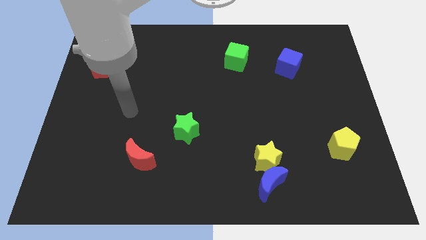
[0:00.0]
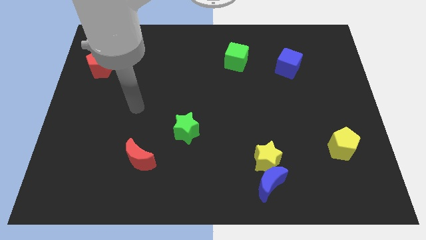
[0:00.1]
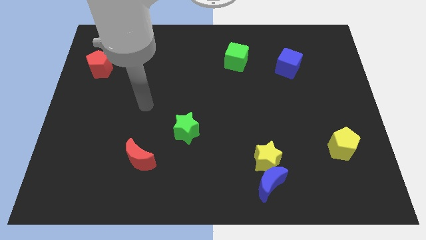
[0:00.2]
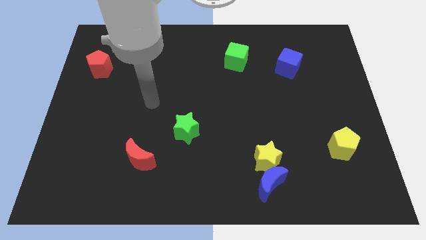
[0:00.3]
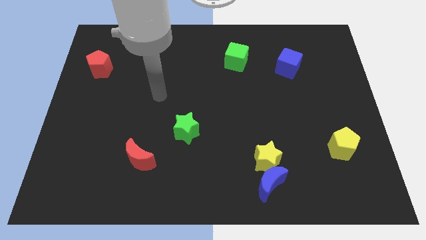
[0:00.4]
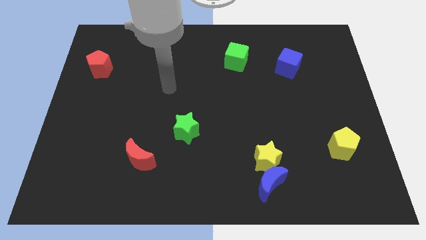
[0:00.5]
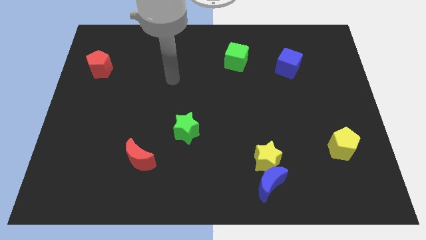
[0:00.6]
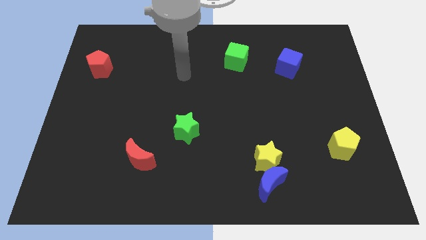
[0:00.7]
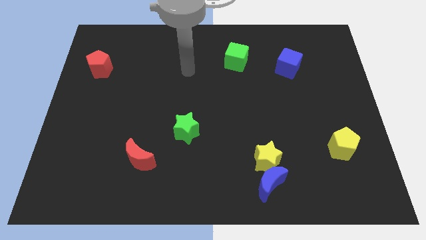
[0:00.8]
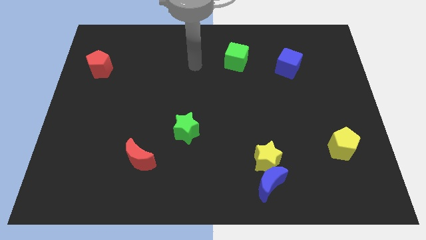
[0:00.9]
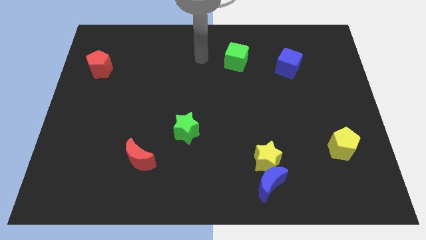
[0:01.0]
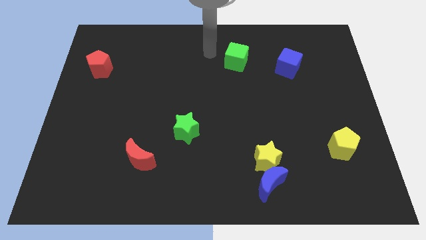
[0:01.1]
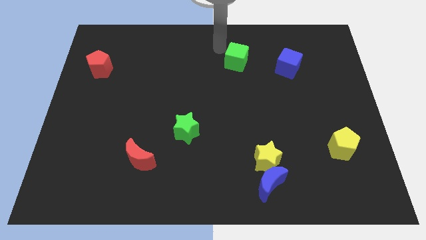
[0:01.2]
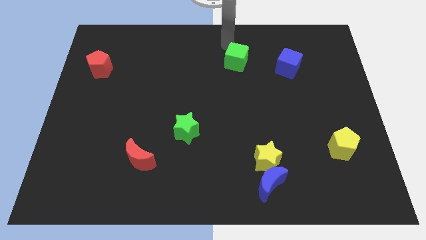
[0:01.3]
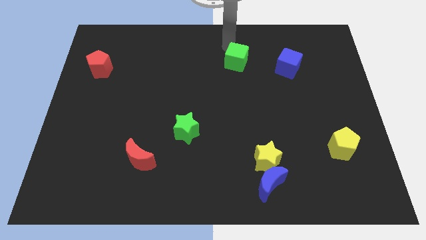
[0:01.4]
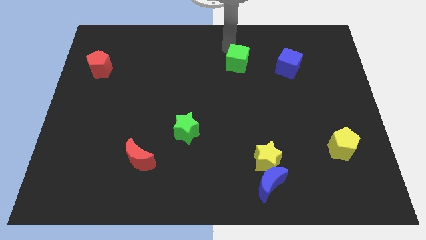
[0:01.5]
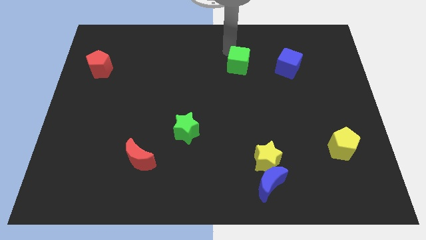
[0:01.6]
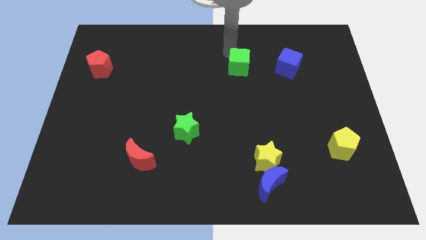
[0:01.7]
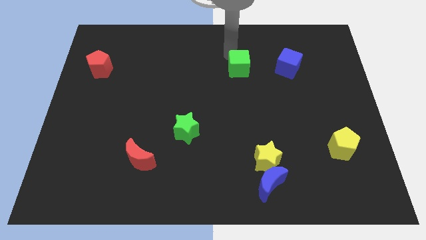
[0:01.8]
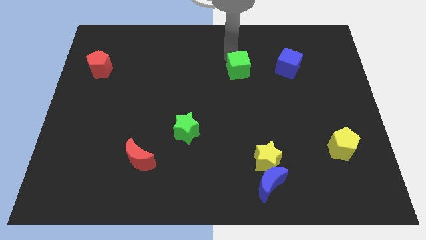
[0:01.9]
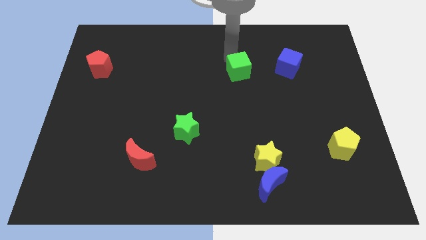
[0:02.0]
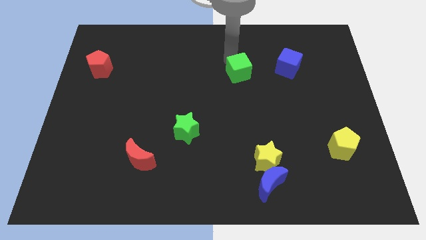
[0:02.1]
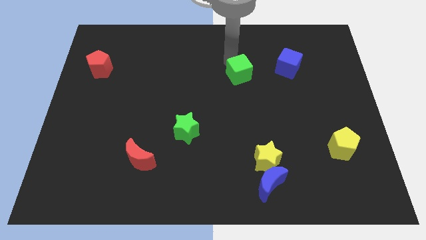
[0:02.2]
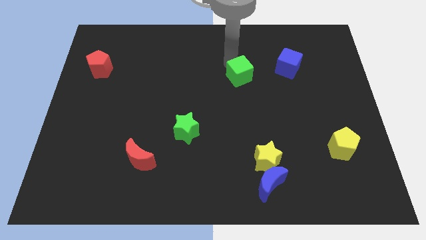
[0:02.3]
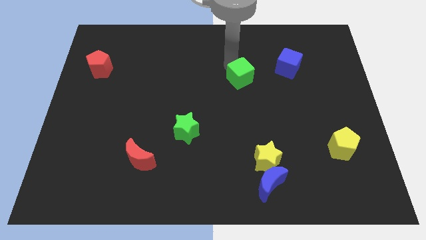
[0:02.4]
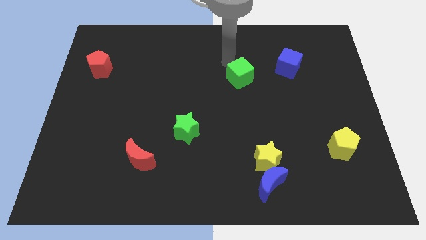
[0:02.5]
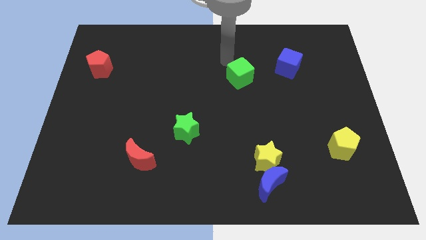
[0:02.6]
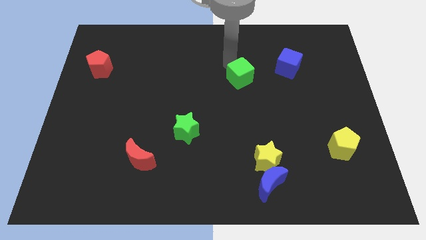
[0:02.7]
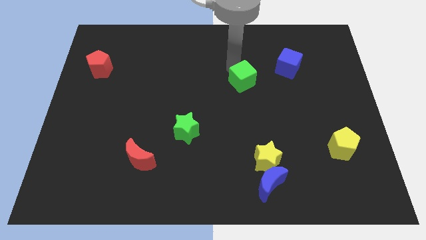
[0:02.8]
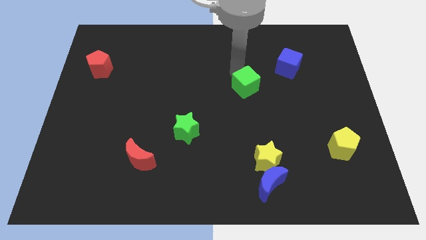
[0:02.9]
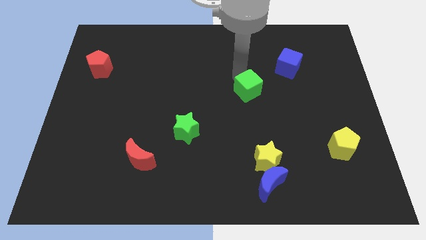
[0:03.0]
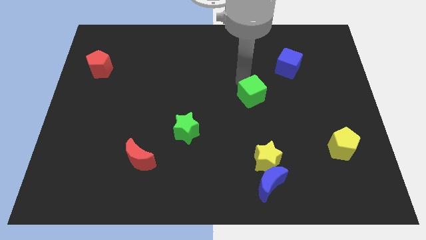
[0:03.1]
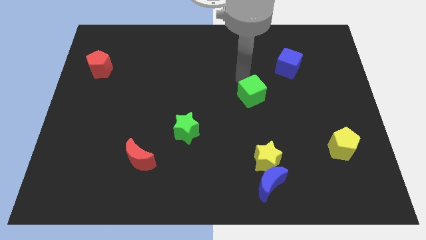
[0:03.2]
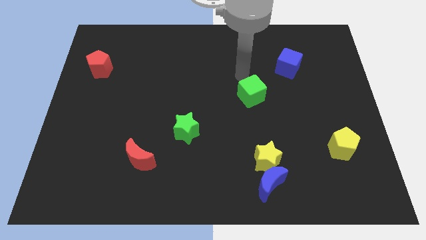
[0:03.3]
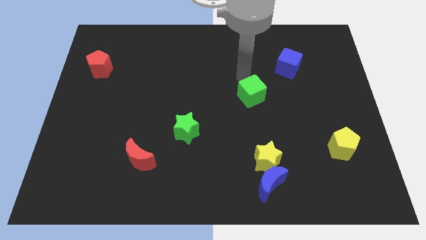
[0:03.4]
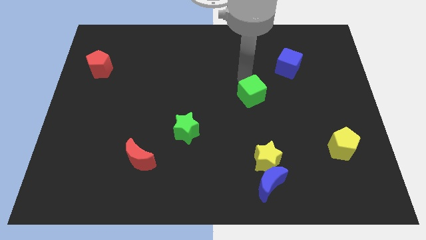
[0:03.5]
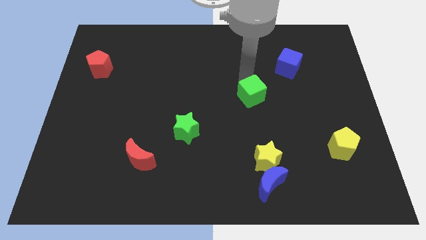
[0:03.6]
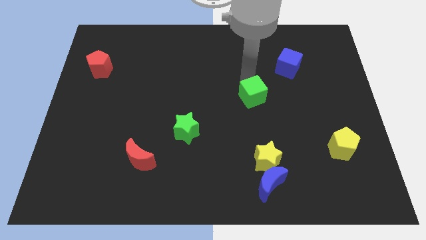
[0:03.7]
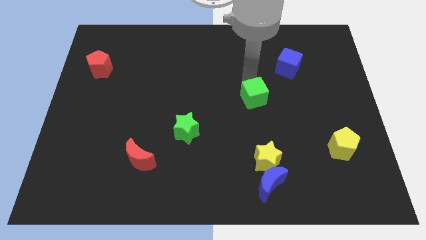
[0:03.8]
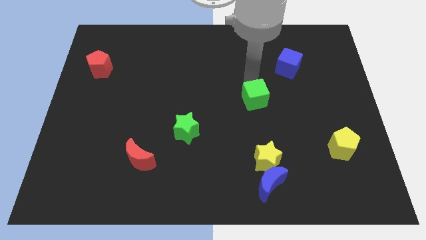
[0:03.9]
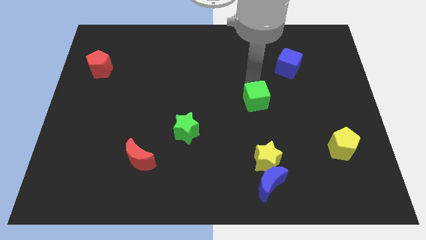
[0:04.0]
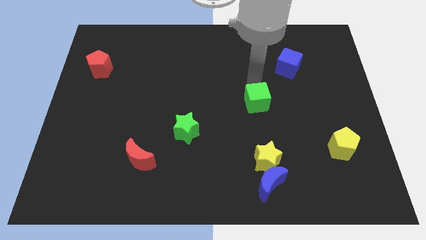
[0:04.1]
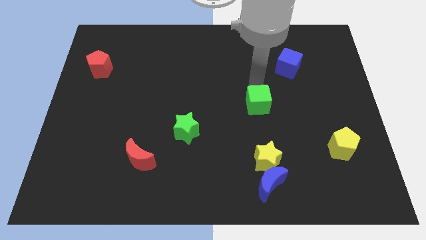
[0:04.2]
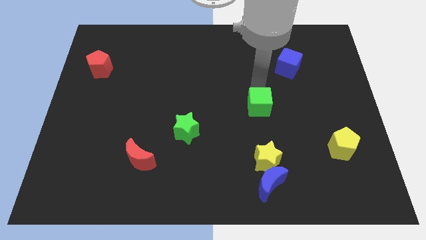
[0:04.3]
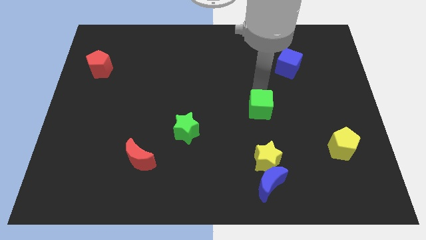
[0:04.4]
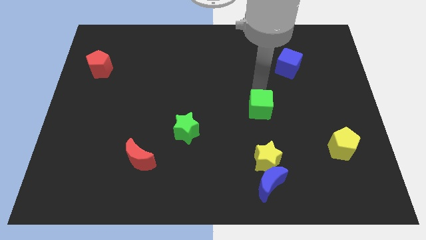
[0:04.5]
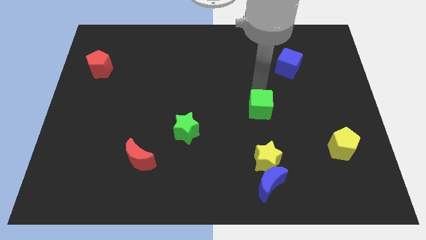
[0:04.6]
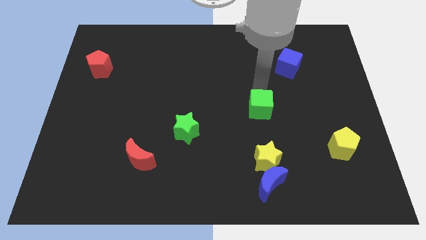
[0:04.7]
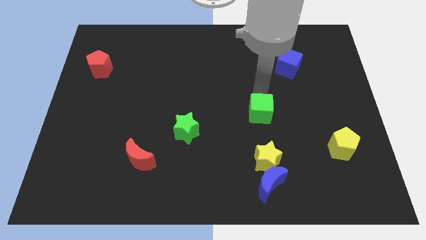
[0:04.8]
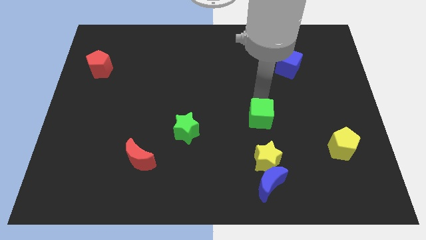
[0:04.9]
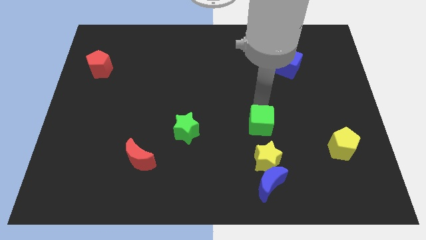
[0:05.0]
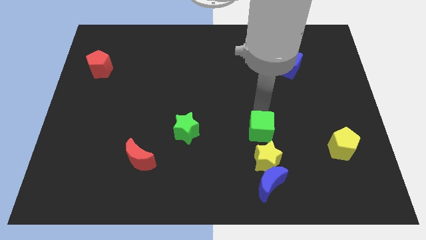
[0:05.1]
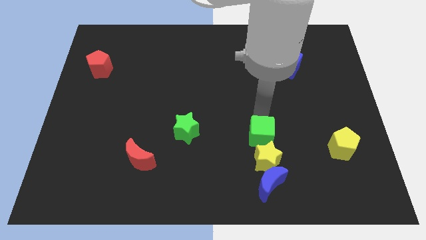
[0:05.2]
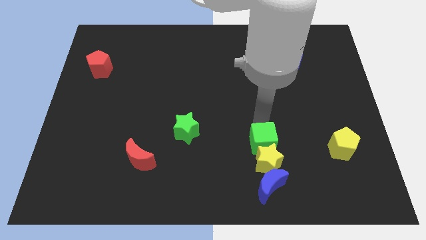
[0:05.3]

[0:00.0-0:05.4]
move the green cube to the yellow star

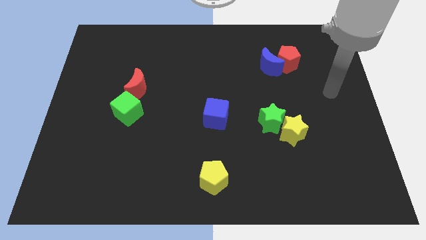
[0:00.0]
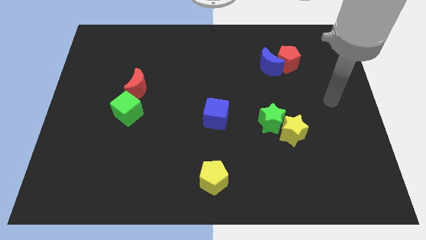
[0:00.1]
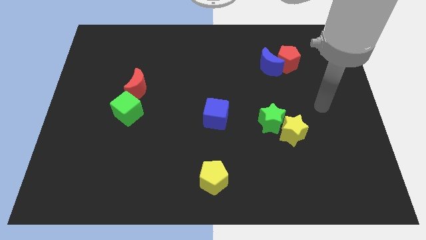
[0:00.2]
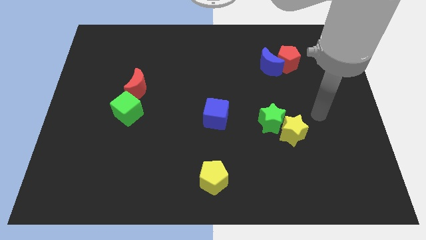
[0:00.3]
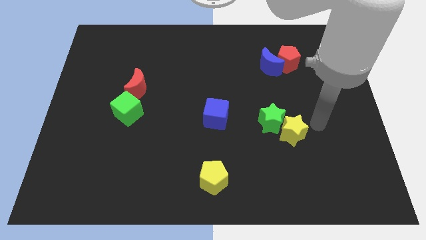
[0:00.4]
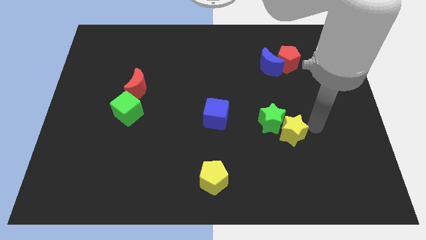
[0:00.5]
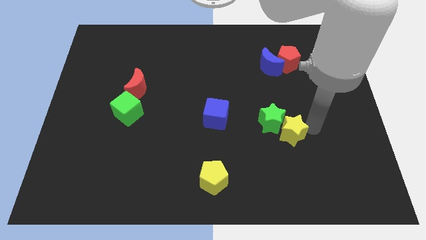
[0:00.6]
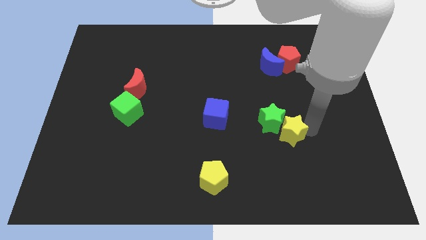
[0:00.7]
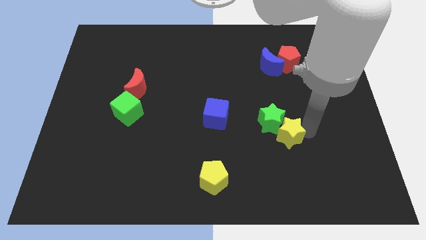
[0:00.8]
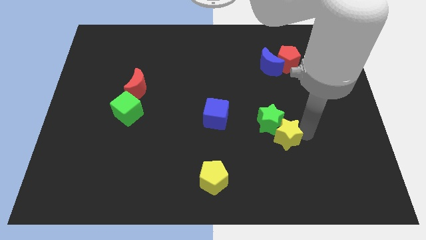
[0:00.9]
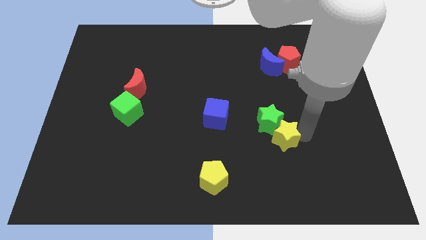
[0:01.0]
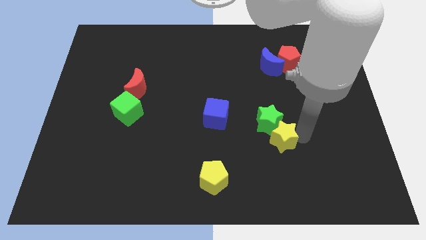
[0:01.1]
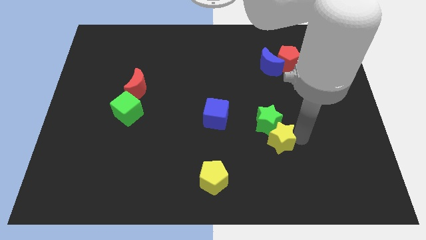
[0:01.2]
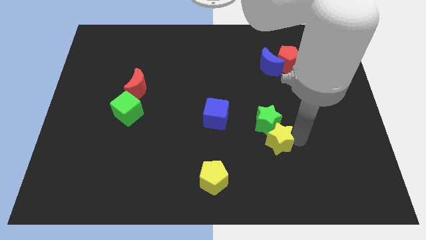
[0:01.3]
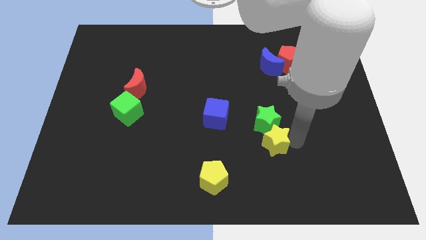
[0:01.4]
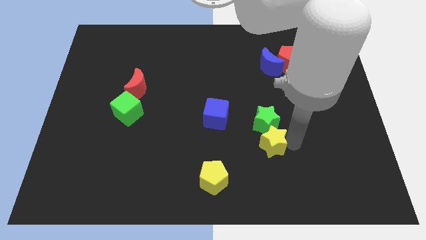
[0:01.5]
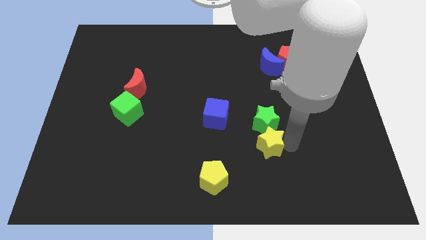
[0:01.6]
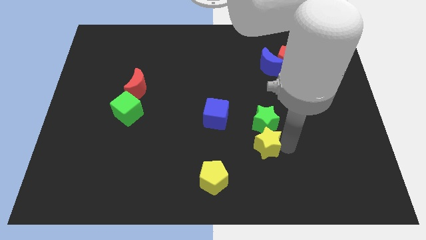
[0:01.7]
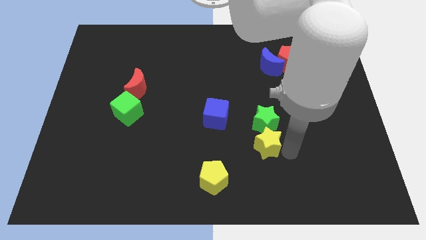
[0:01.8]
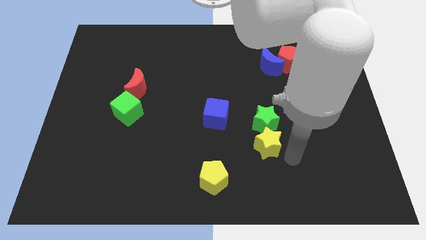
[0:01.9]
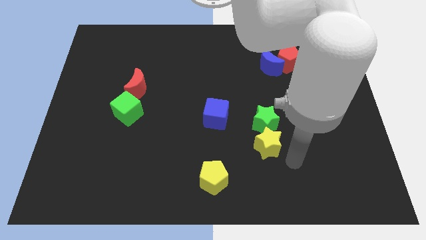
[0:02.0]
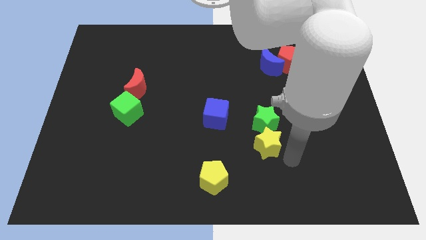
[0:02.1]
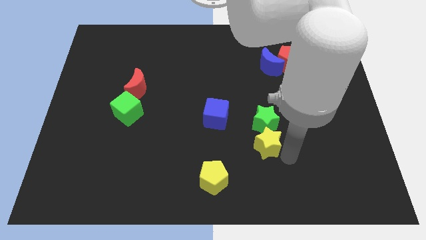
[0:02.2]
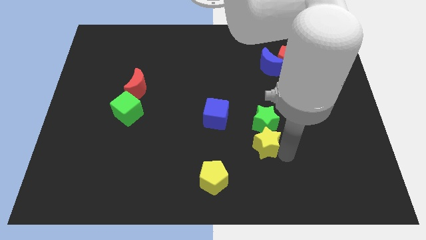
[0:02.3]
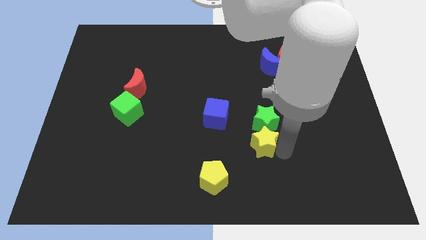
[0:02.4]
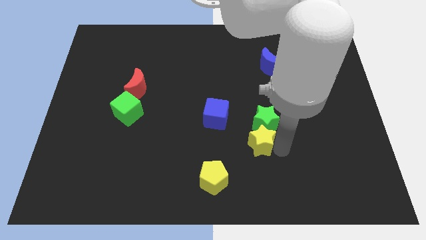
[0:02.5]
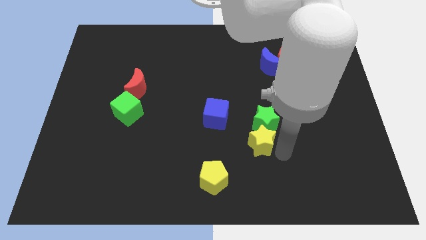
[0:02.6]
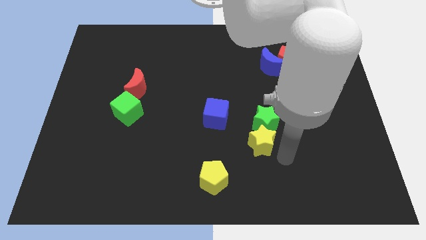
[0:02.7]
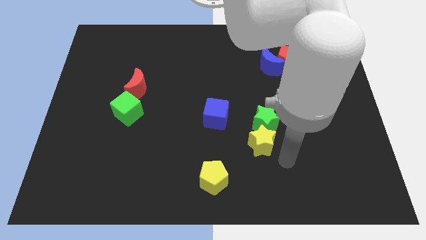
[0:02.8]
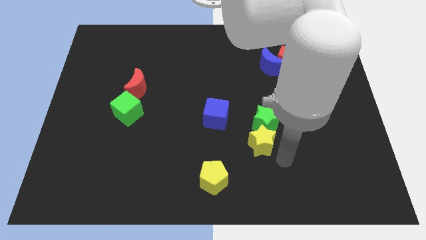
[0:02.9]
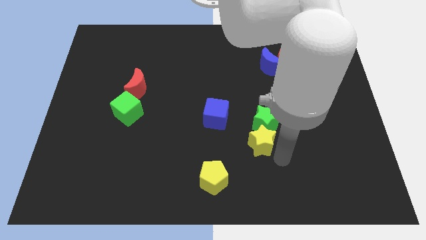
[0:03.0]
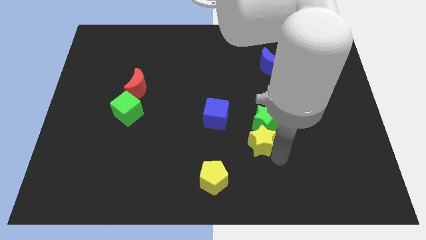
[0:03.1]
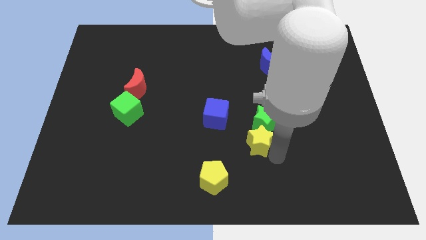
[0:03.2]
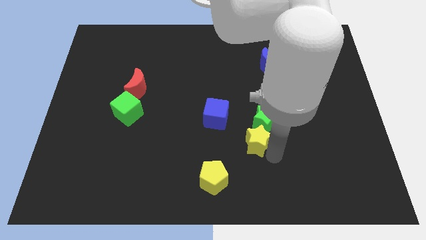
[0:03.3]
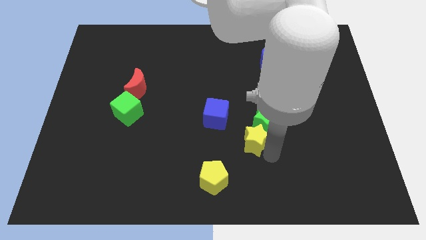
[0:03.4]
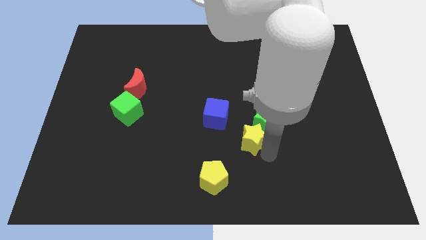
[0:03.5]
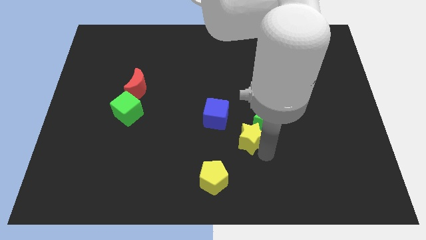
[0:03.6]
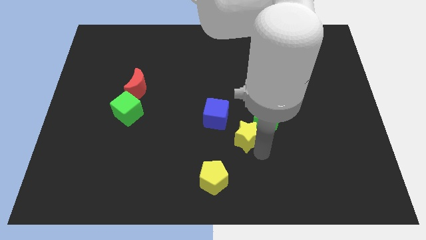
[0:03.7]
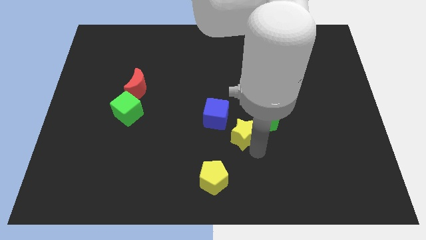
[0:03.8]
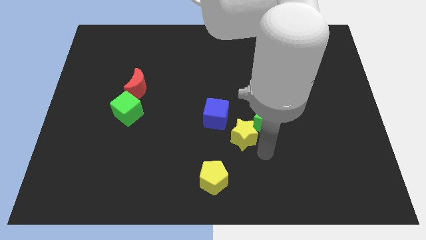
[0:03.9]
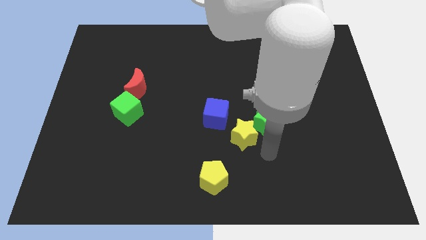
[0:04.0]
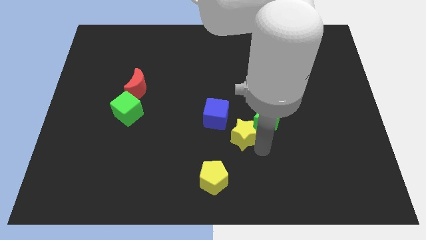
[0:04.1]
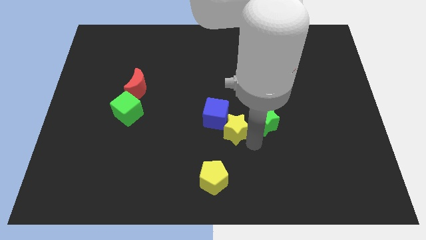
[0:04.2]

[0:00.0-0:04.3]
push the yellow star next to the blue cube
